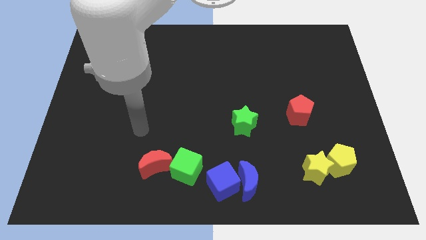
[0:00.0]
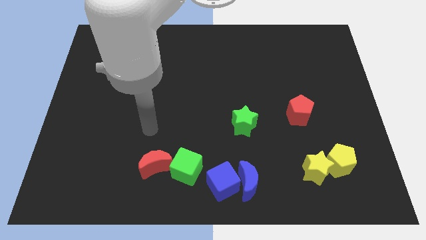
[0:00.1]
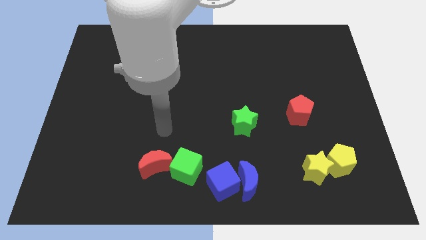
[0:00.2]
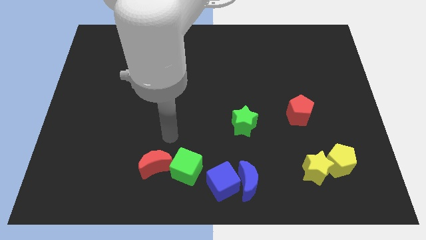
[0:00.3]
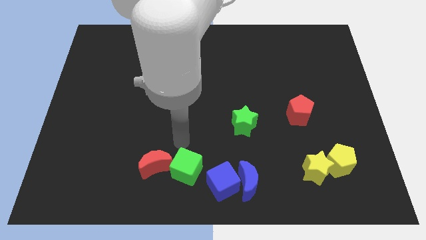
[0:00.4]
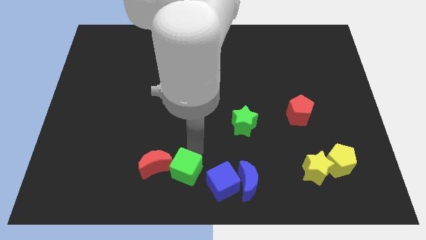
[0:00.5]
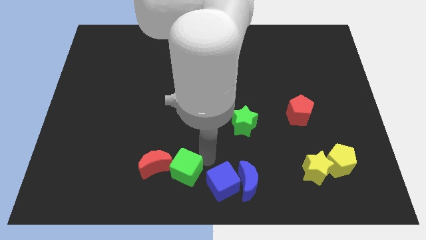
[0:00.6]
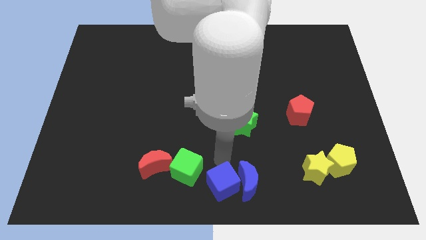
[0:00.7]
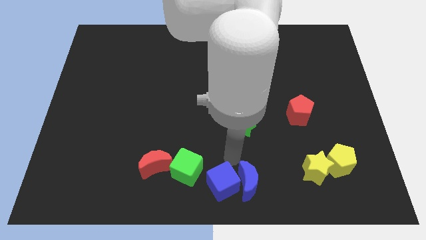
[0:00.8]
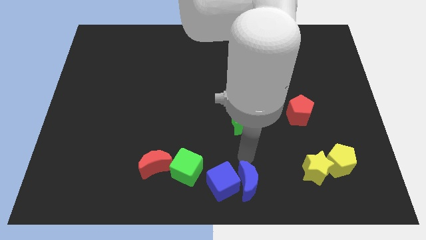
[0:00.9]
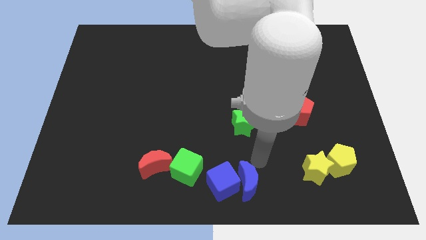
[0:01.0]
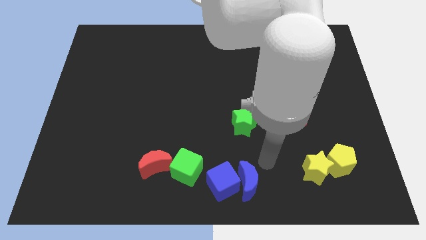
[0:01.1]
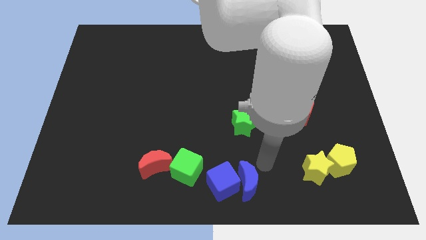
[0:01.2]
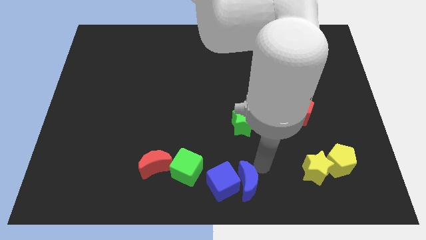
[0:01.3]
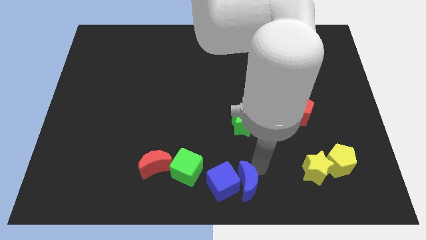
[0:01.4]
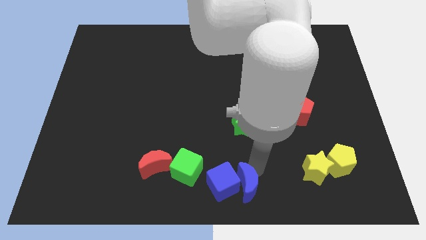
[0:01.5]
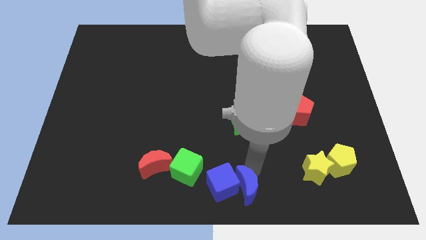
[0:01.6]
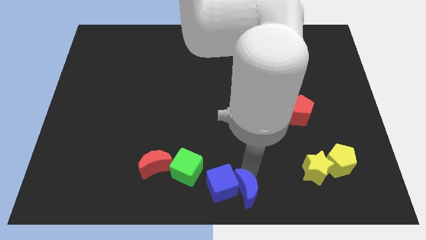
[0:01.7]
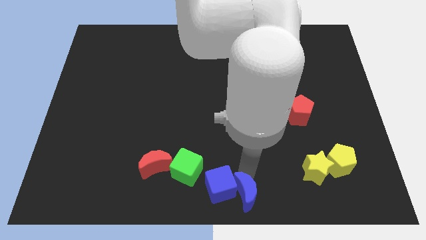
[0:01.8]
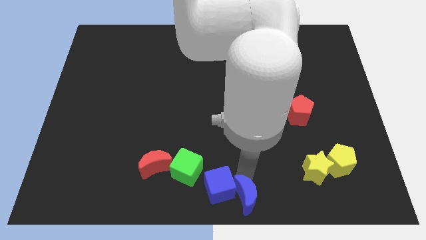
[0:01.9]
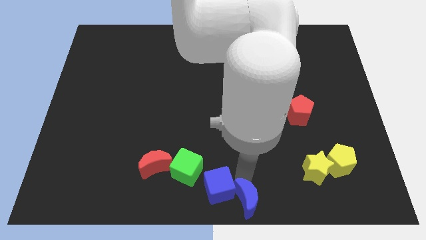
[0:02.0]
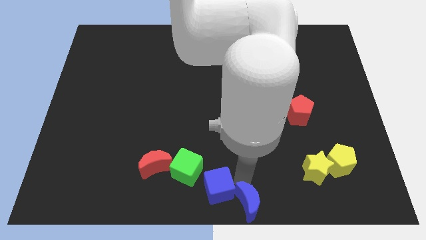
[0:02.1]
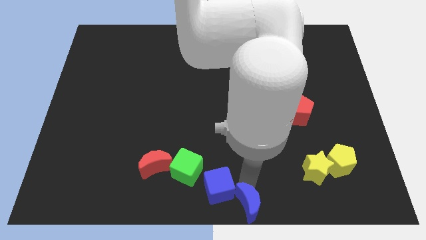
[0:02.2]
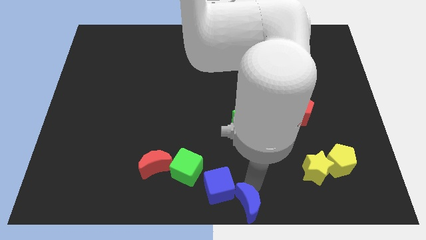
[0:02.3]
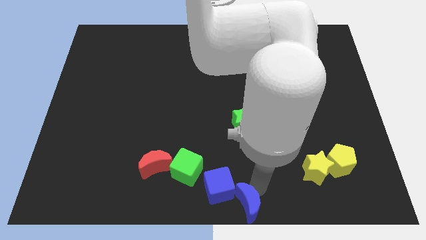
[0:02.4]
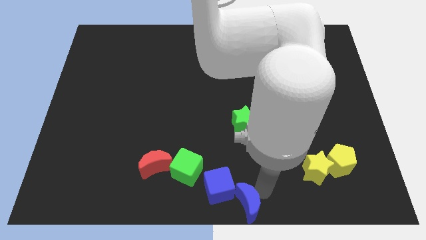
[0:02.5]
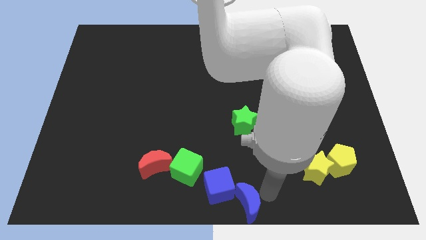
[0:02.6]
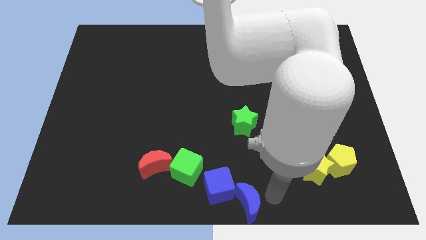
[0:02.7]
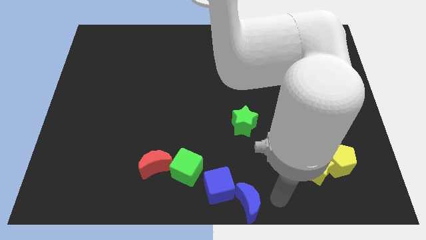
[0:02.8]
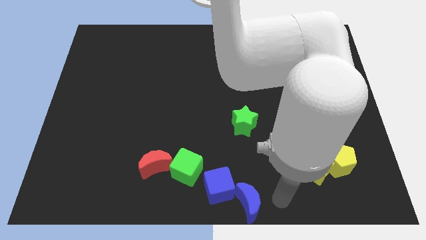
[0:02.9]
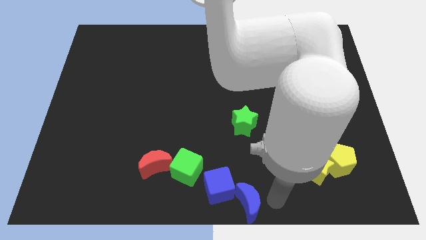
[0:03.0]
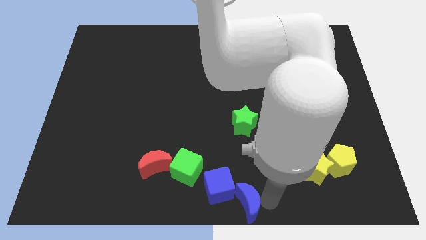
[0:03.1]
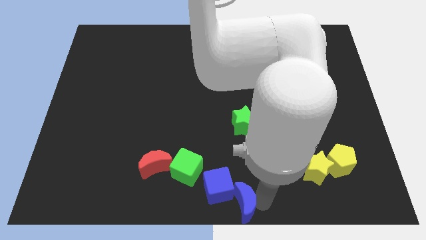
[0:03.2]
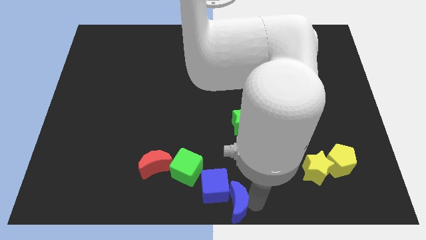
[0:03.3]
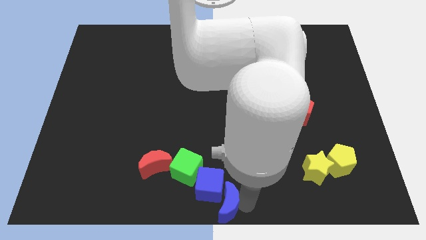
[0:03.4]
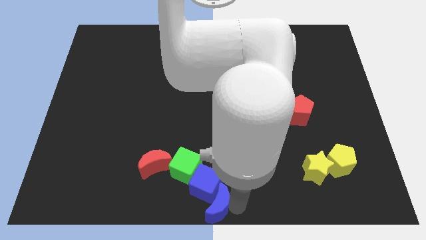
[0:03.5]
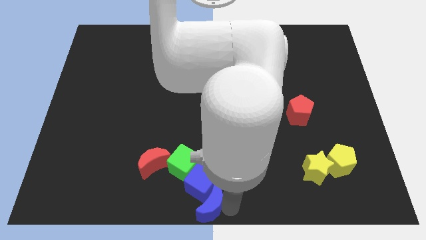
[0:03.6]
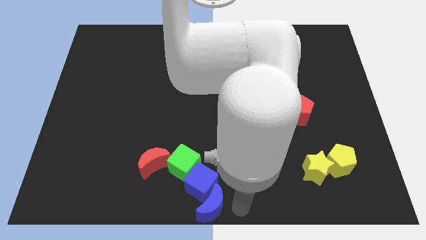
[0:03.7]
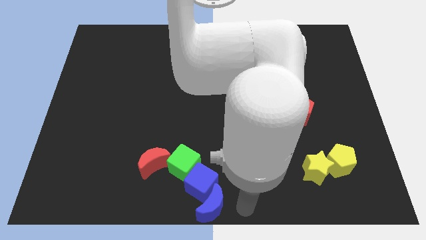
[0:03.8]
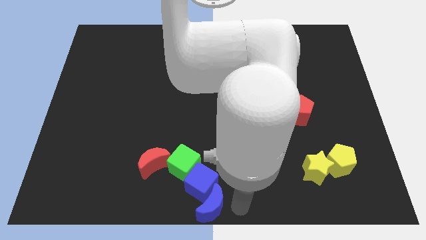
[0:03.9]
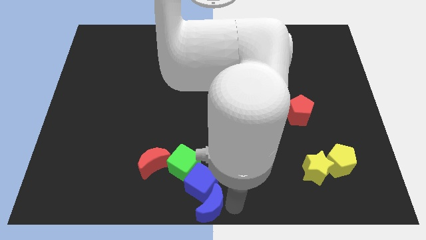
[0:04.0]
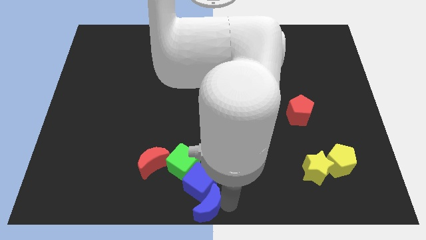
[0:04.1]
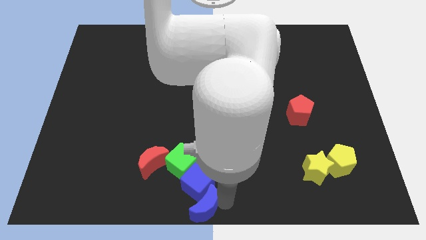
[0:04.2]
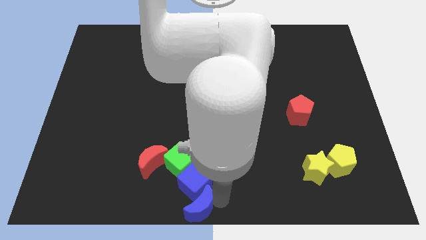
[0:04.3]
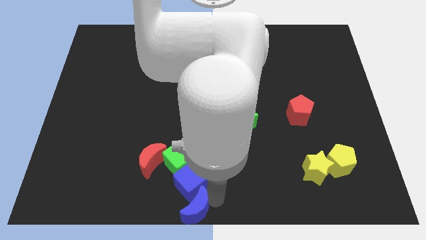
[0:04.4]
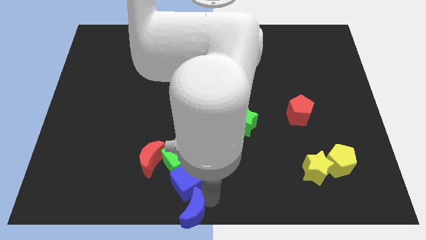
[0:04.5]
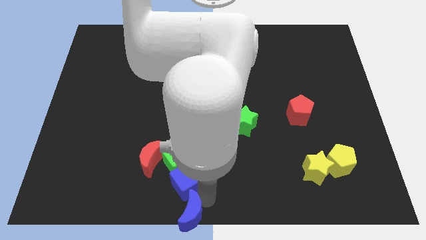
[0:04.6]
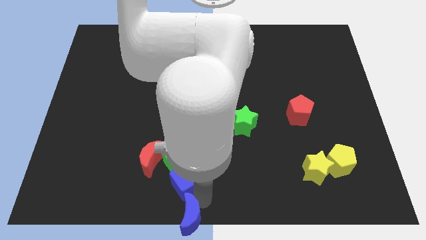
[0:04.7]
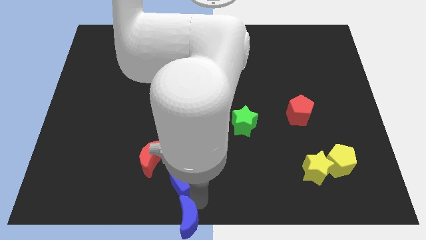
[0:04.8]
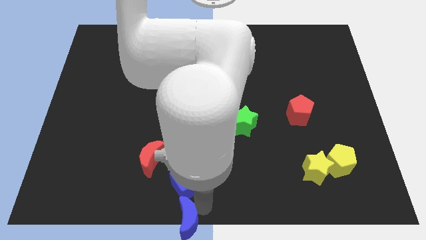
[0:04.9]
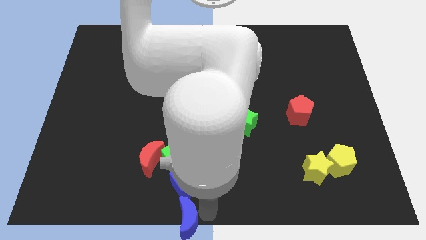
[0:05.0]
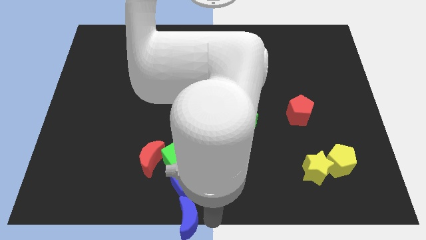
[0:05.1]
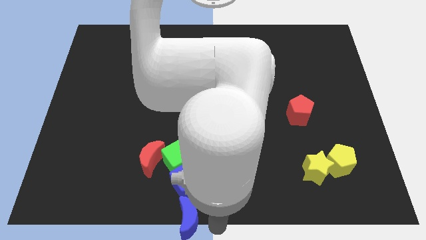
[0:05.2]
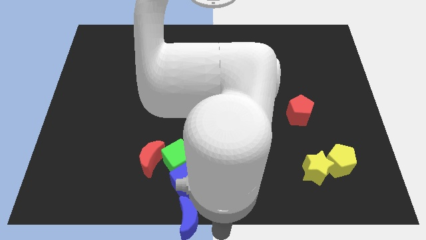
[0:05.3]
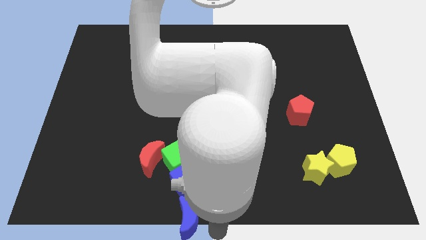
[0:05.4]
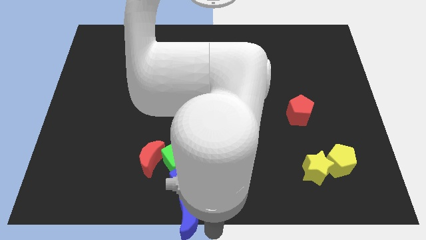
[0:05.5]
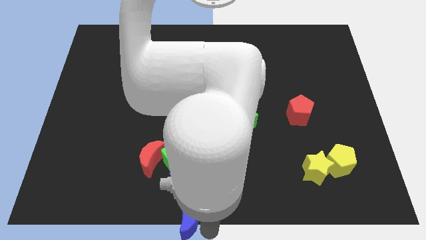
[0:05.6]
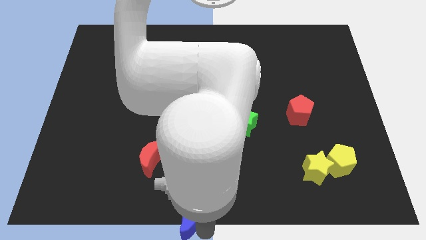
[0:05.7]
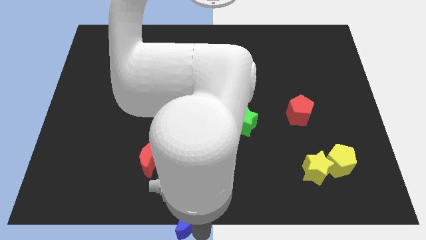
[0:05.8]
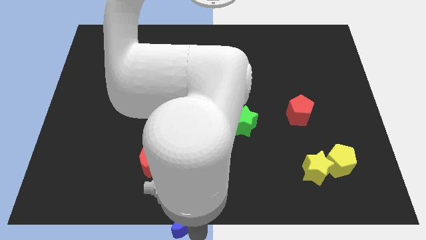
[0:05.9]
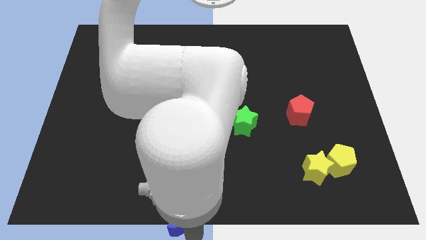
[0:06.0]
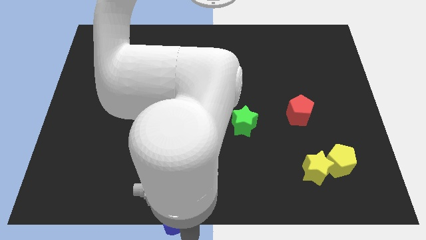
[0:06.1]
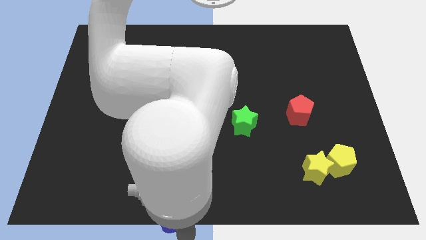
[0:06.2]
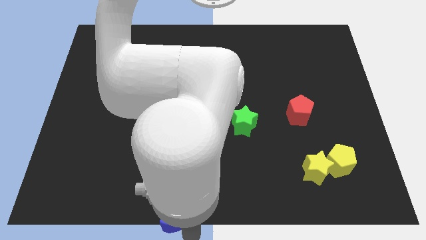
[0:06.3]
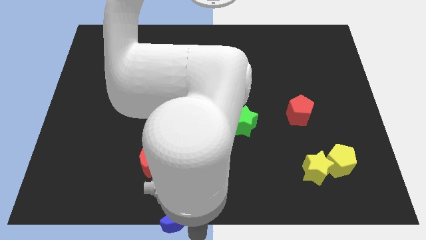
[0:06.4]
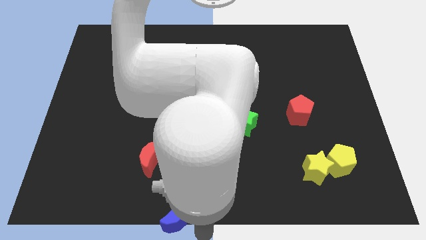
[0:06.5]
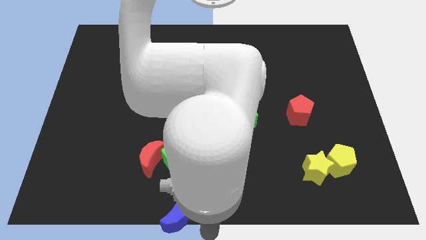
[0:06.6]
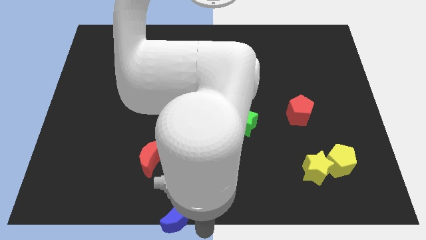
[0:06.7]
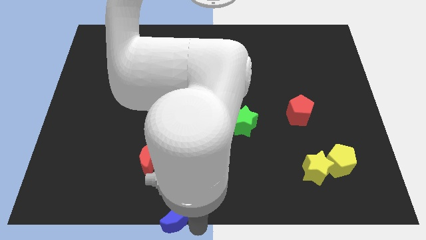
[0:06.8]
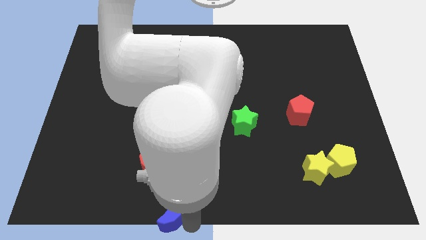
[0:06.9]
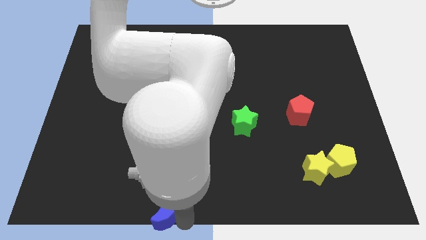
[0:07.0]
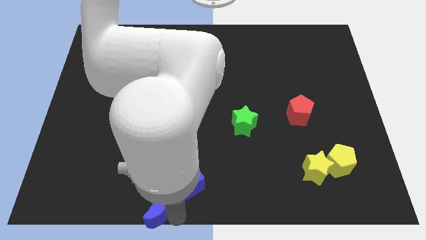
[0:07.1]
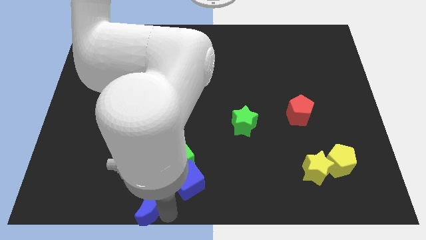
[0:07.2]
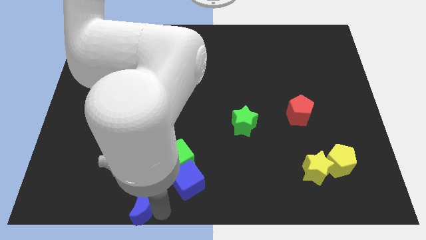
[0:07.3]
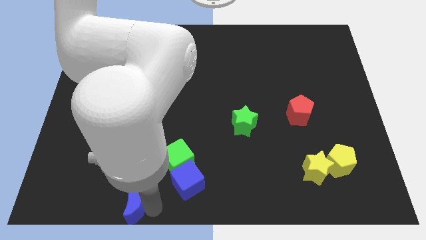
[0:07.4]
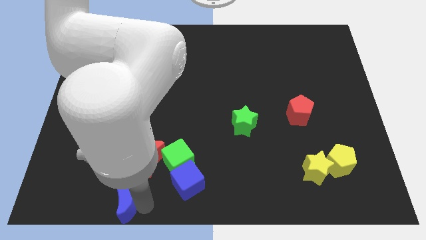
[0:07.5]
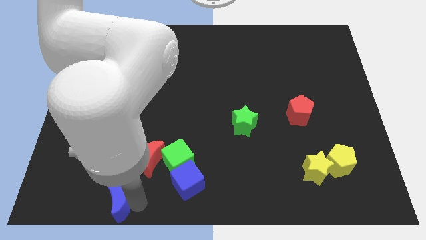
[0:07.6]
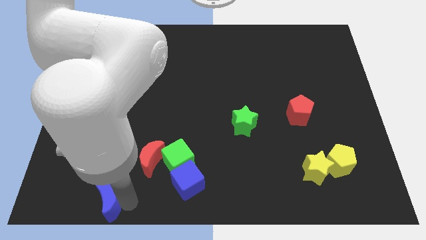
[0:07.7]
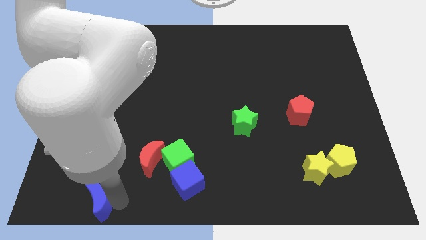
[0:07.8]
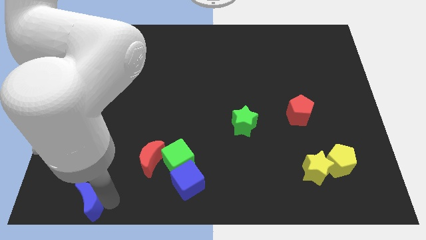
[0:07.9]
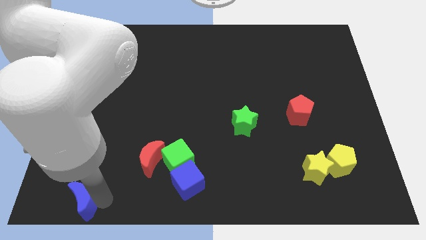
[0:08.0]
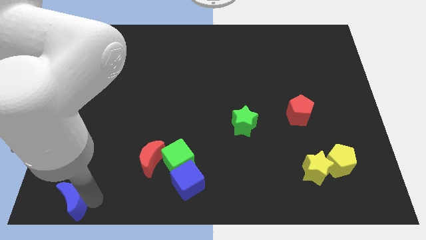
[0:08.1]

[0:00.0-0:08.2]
move the blue moon to the bottom left corner
